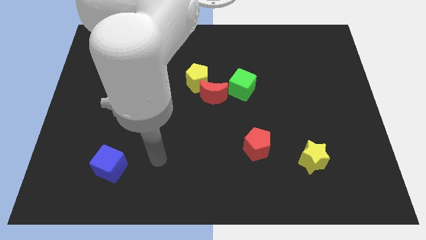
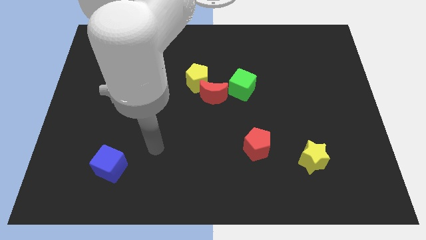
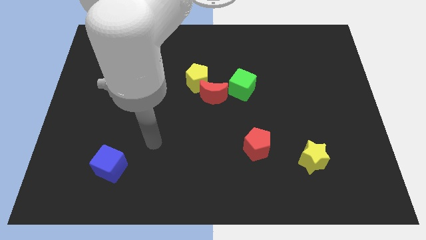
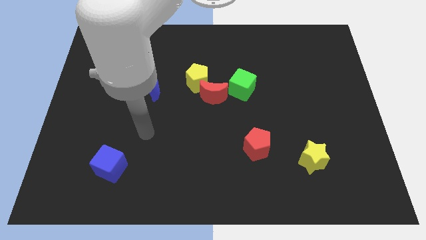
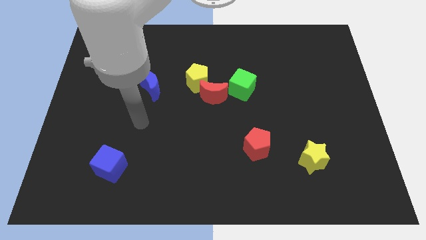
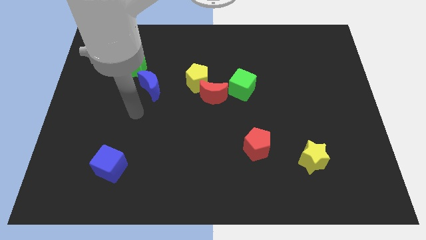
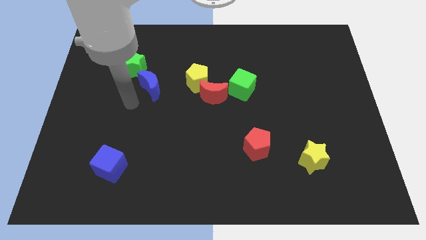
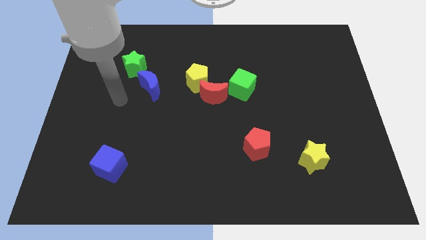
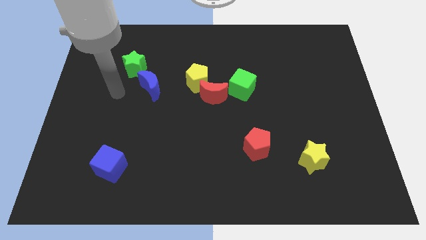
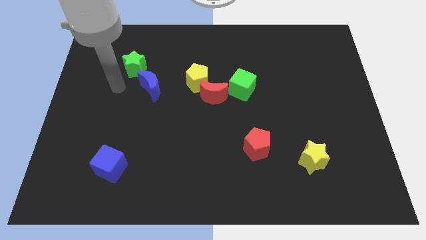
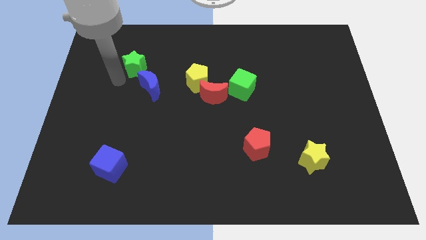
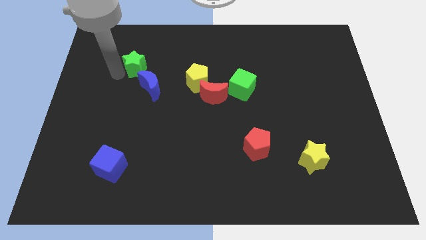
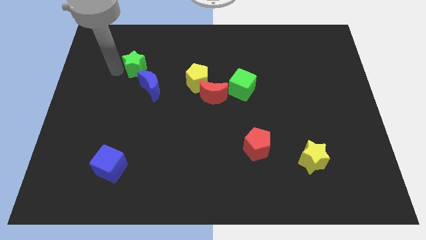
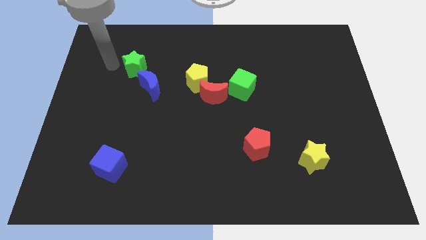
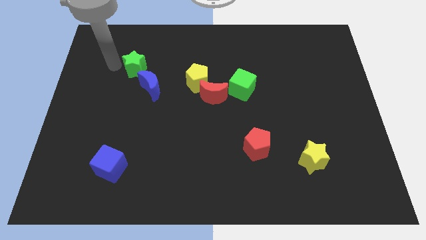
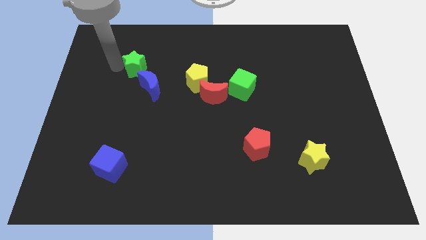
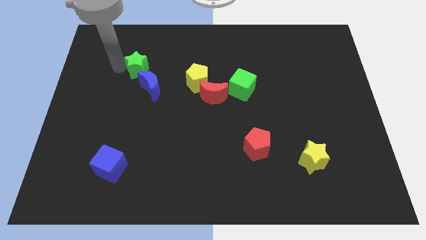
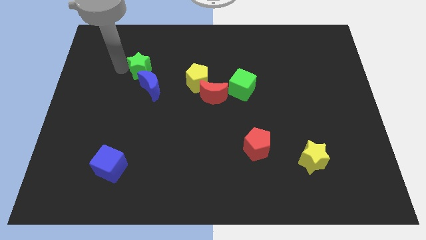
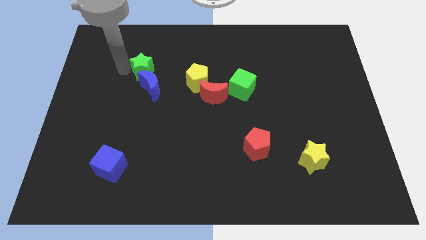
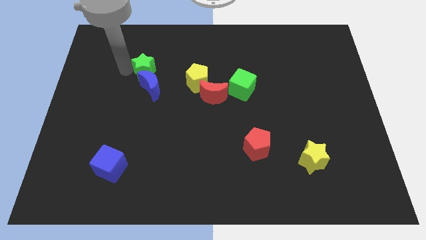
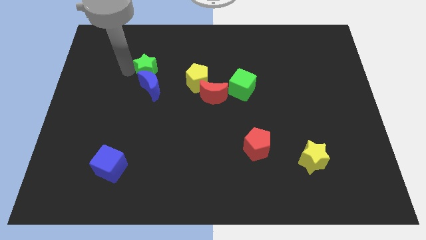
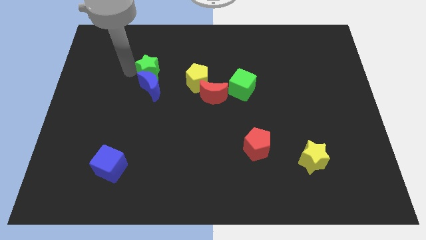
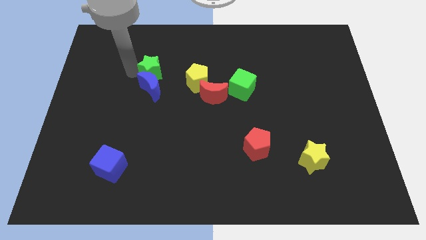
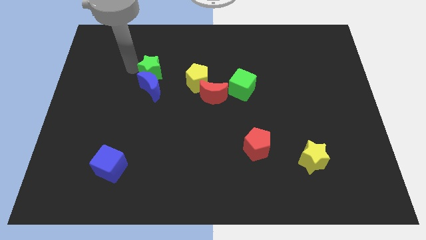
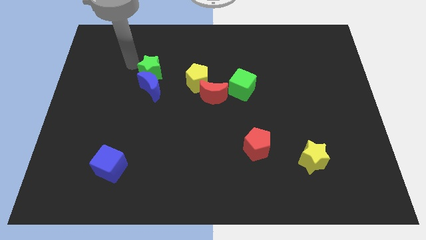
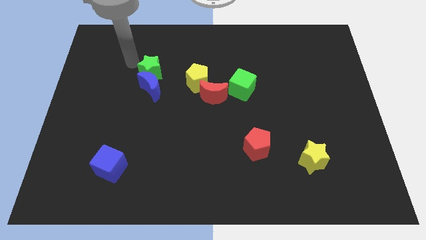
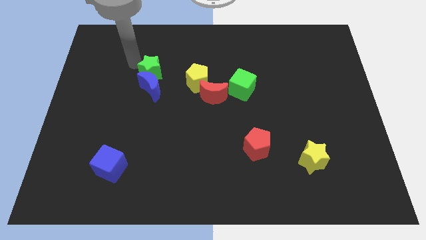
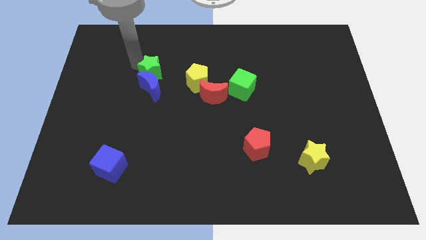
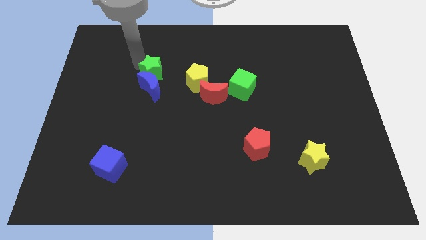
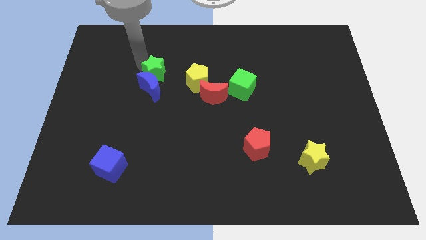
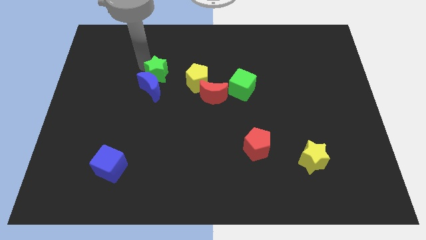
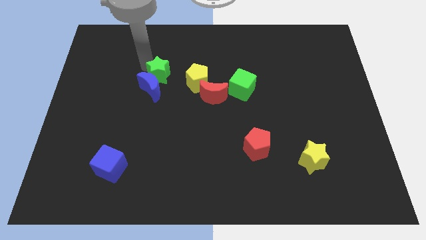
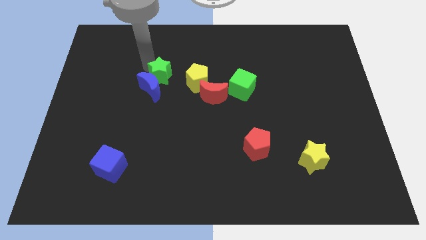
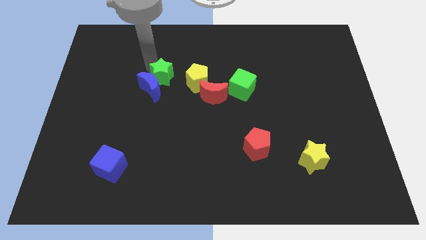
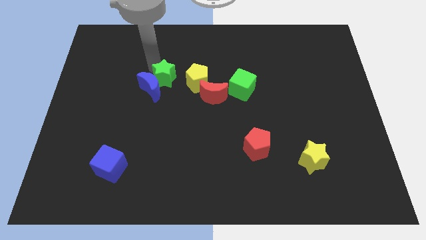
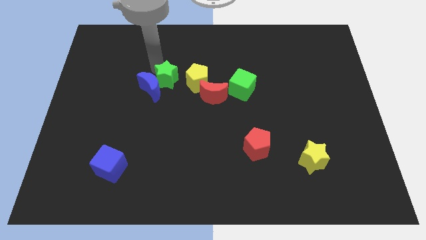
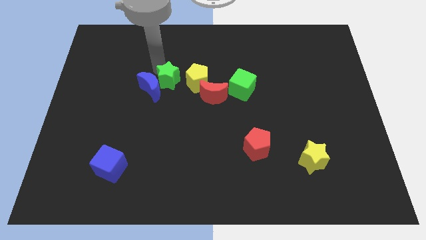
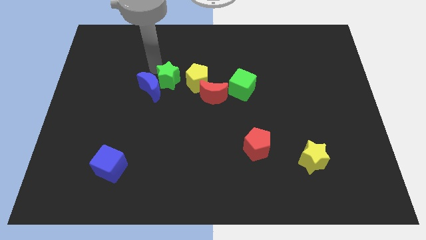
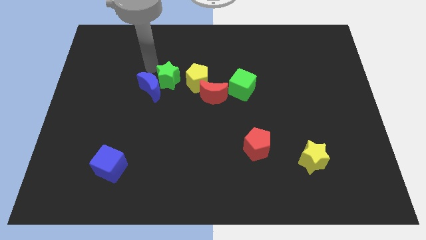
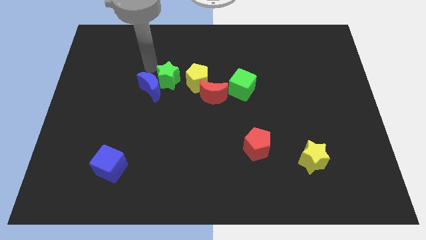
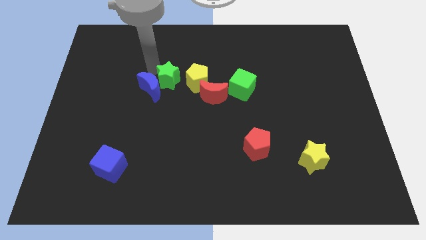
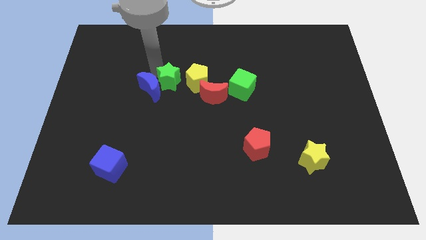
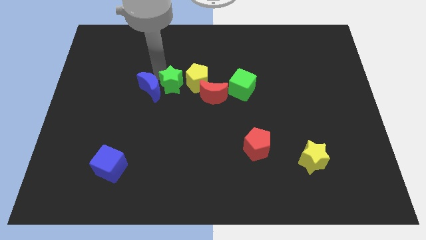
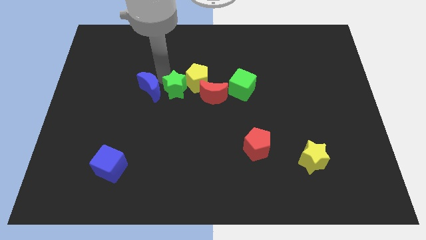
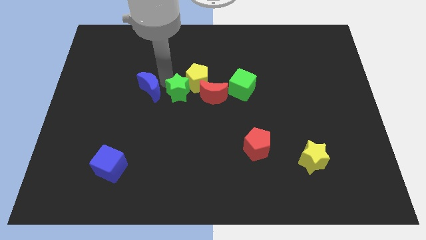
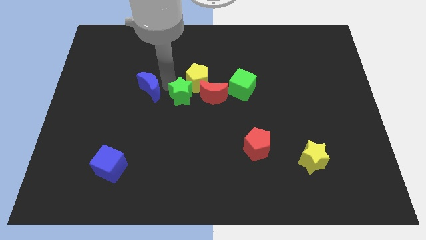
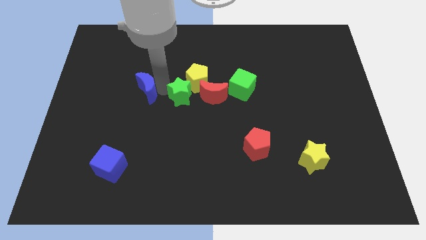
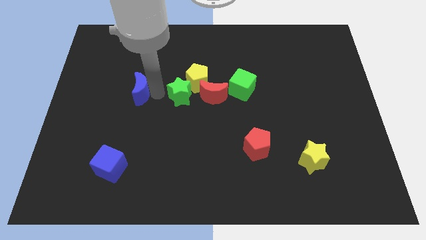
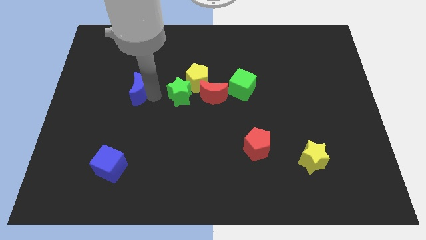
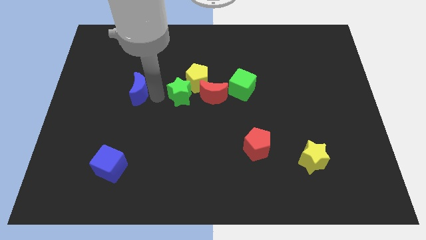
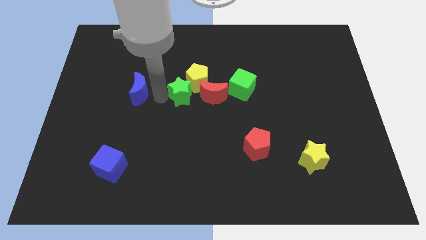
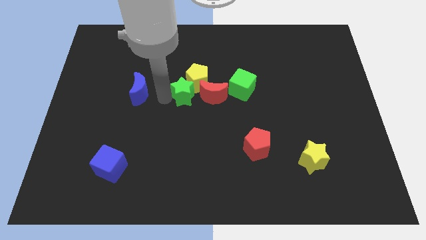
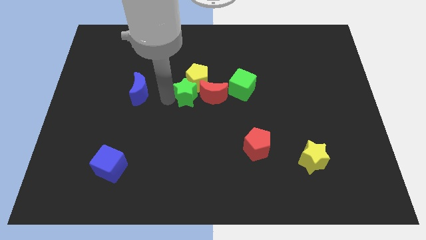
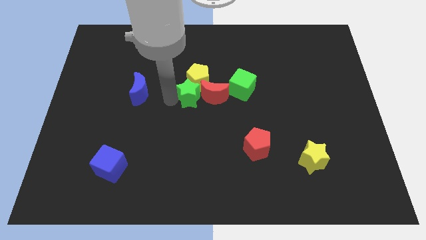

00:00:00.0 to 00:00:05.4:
push the green star next to the red moon

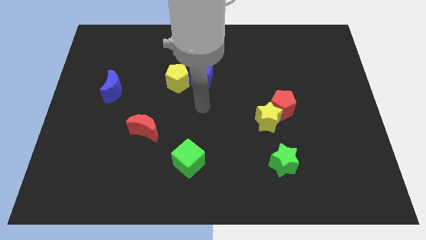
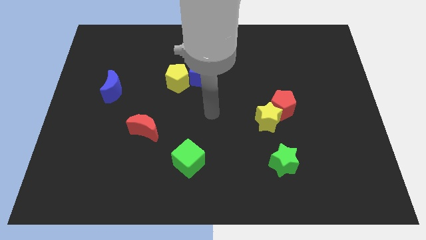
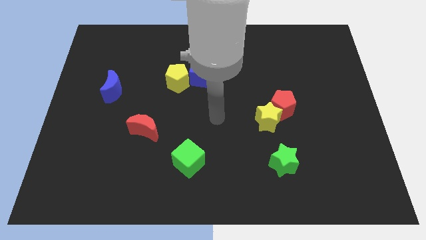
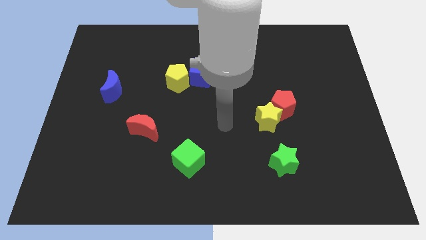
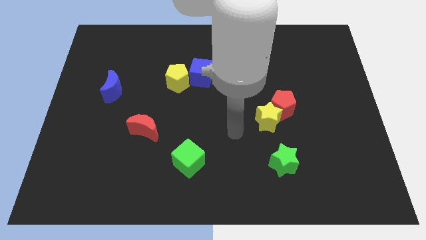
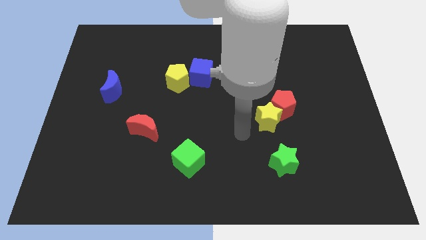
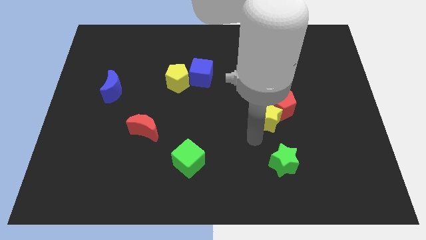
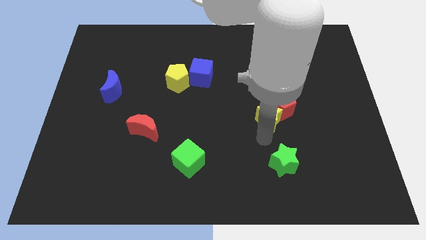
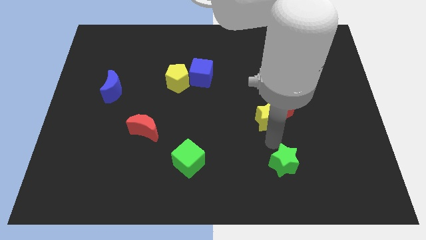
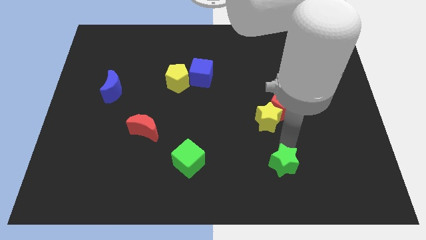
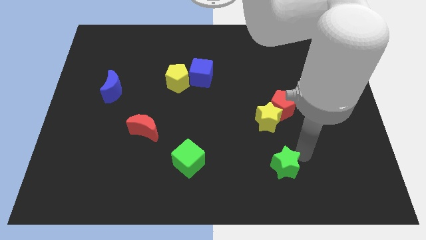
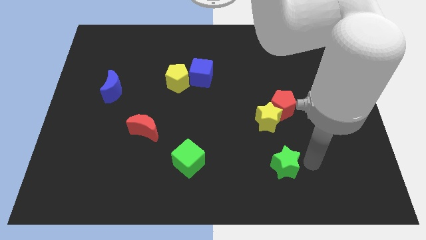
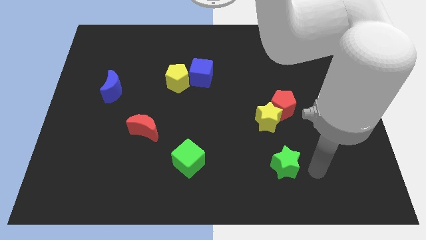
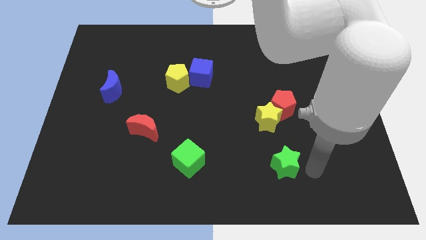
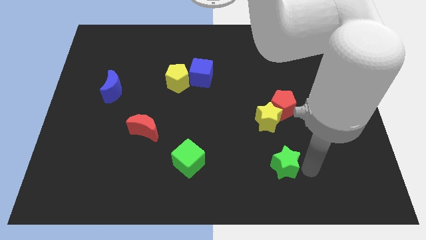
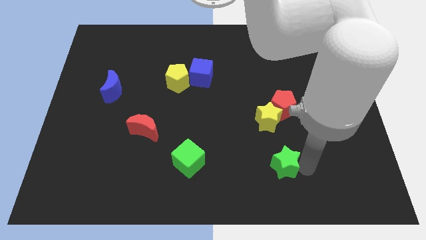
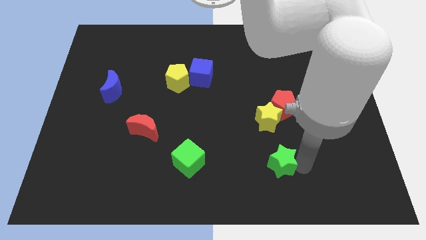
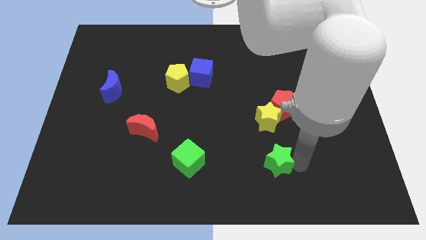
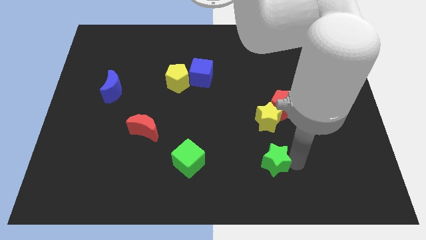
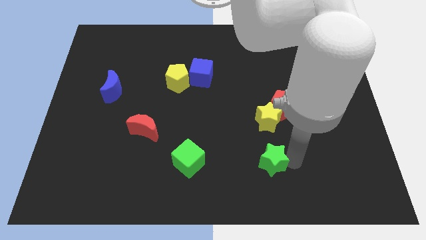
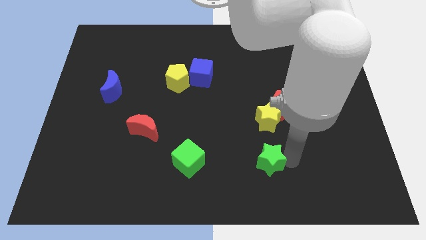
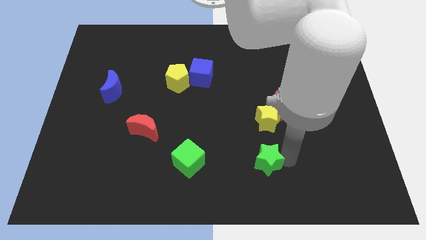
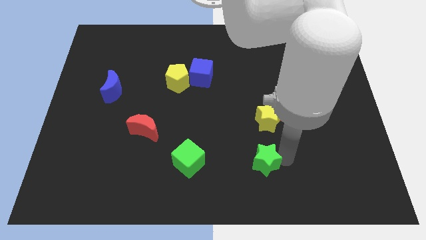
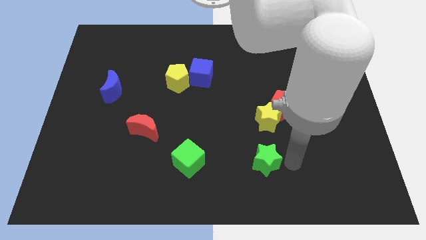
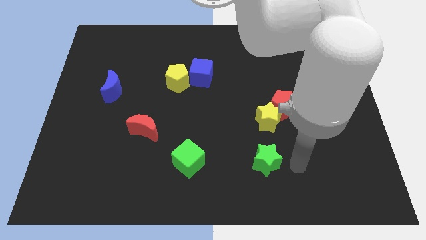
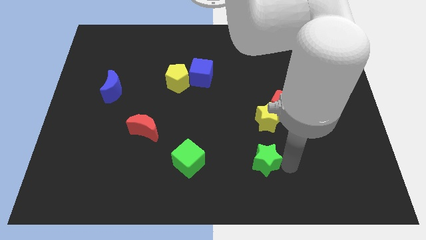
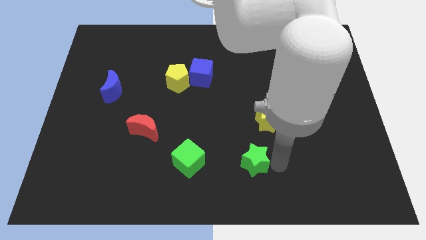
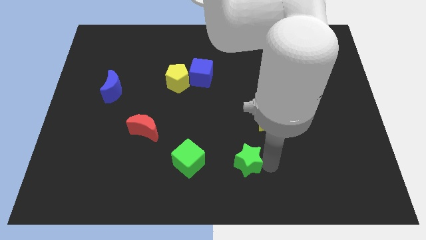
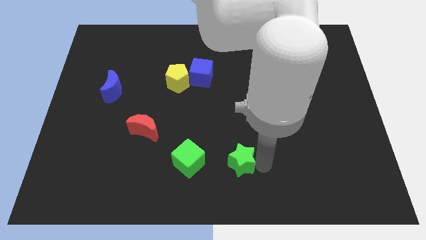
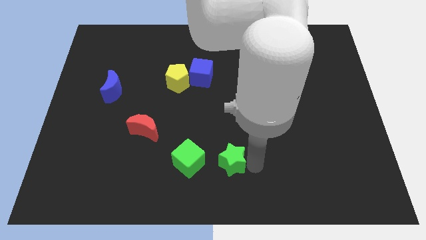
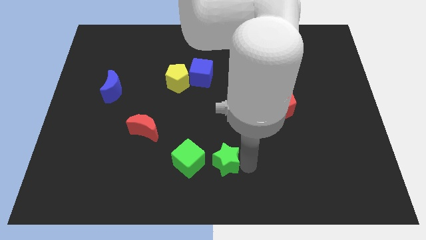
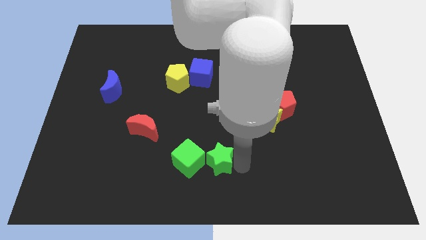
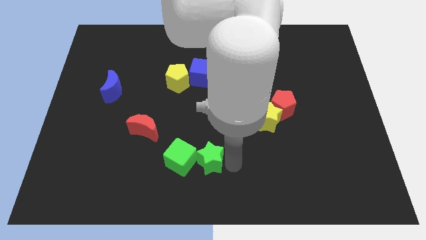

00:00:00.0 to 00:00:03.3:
slide the green star next to the green cube
